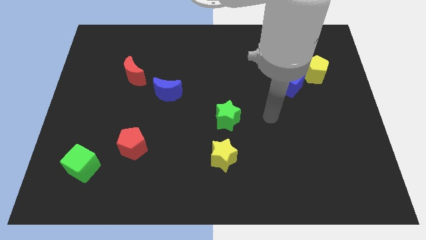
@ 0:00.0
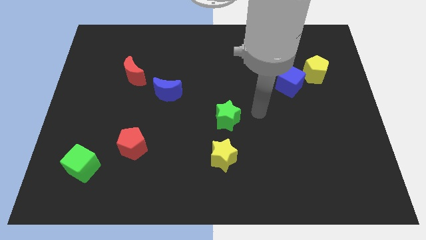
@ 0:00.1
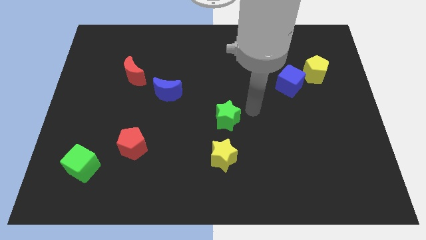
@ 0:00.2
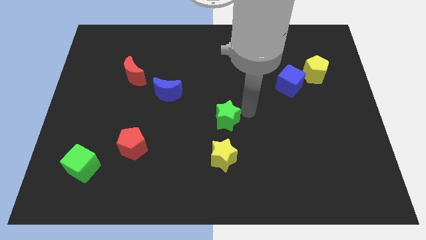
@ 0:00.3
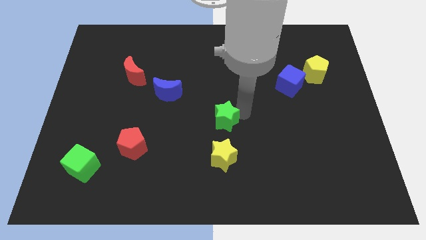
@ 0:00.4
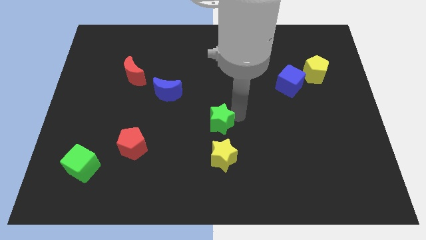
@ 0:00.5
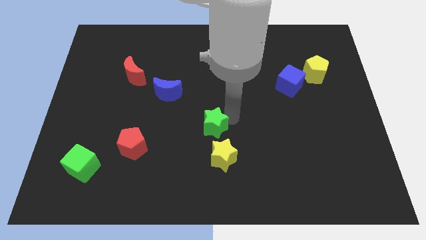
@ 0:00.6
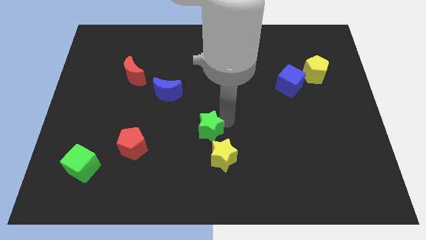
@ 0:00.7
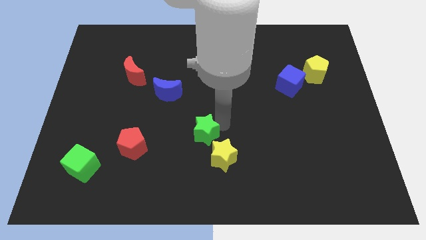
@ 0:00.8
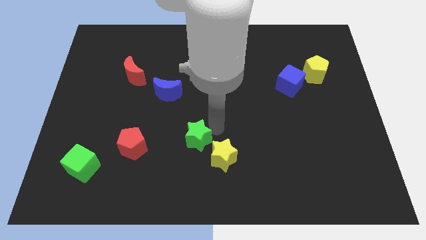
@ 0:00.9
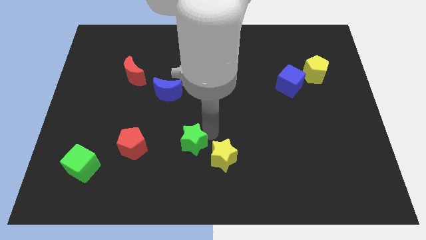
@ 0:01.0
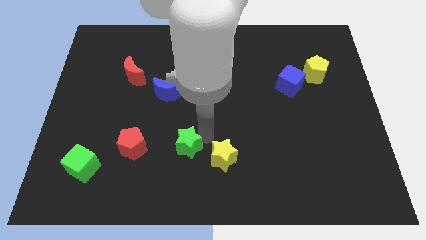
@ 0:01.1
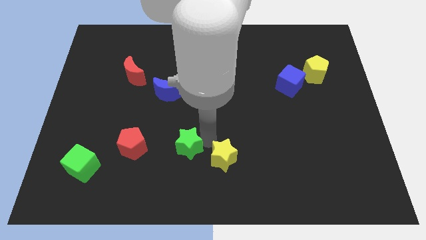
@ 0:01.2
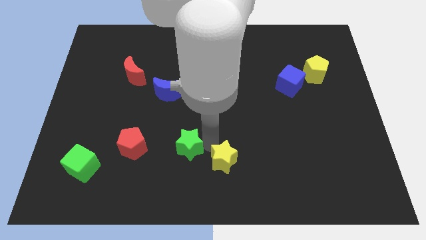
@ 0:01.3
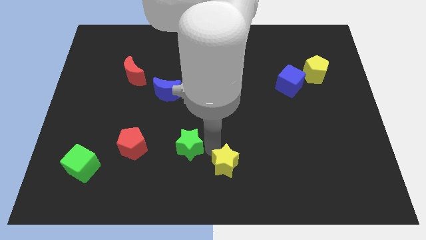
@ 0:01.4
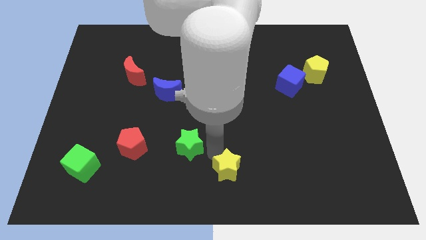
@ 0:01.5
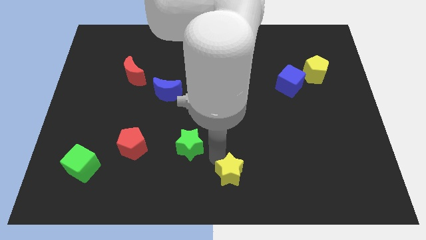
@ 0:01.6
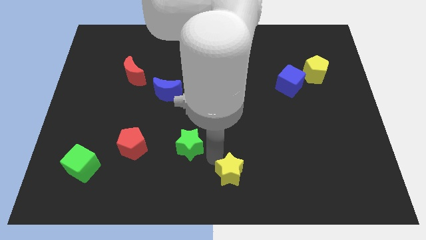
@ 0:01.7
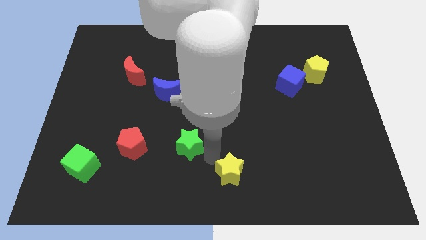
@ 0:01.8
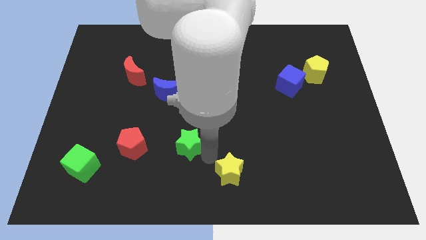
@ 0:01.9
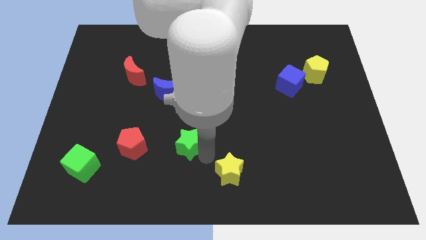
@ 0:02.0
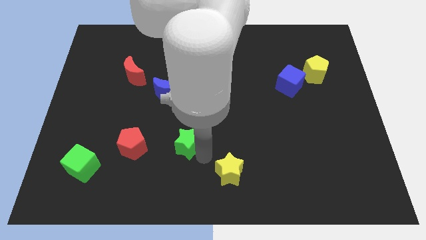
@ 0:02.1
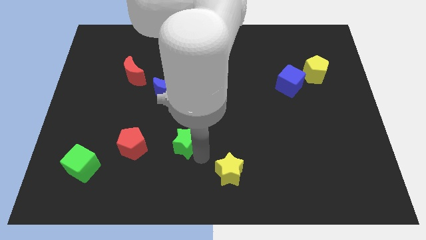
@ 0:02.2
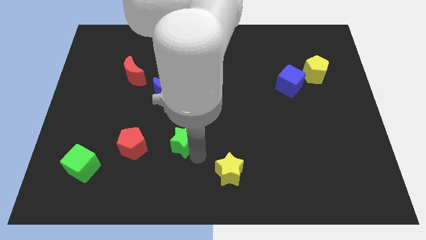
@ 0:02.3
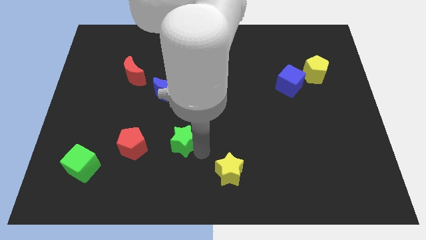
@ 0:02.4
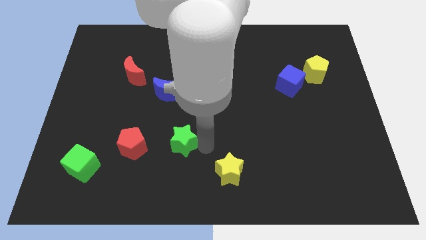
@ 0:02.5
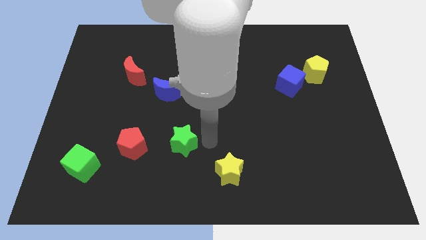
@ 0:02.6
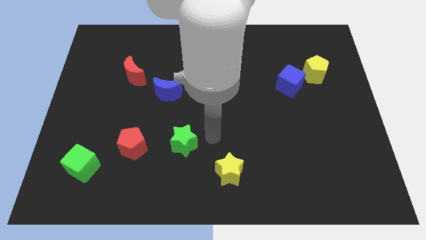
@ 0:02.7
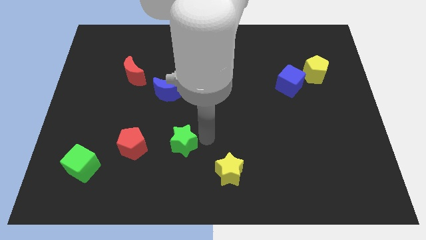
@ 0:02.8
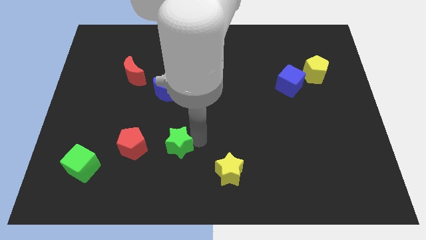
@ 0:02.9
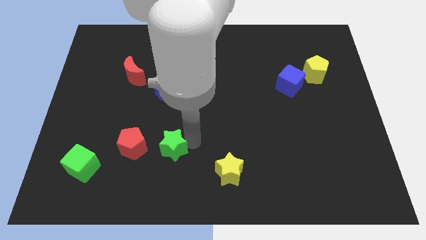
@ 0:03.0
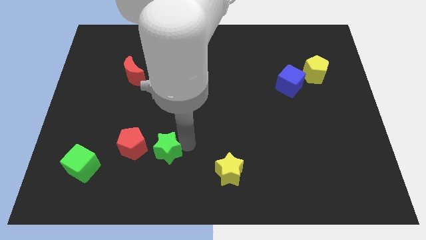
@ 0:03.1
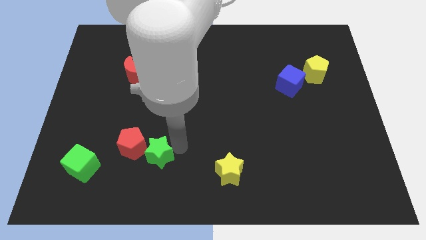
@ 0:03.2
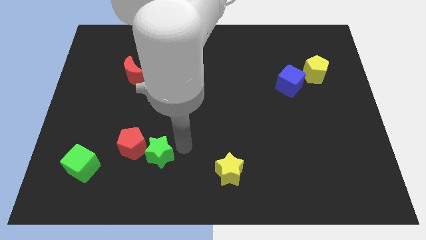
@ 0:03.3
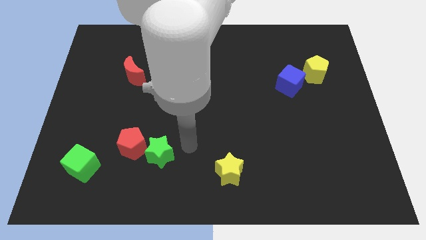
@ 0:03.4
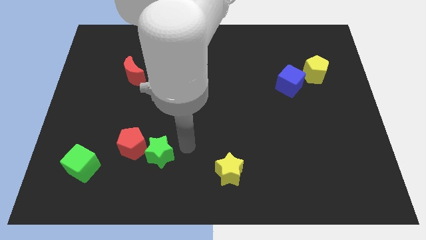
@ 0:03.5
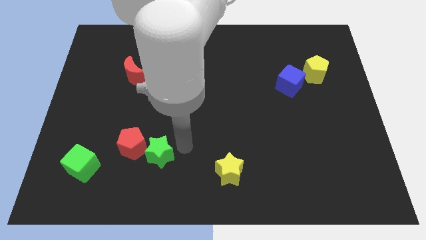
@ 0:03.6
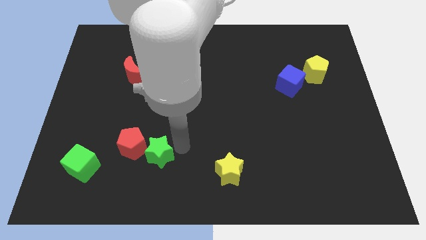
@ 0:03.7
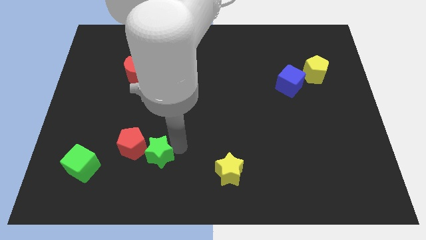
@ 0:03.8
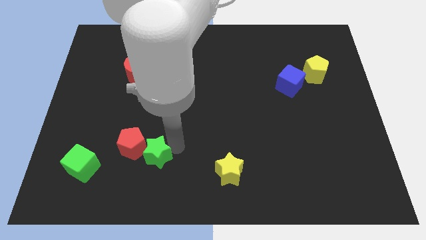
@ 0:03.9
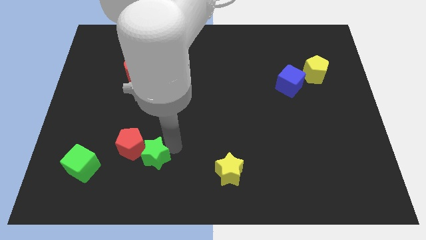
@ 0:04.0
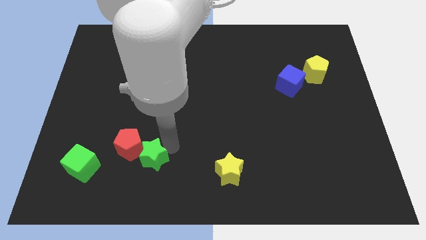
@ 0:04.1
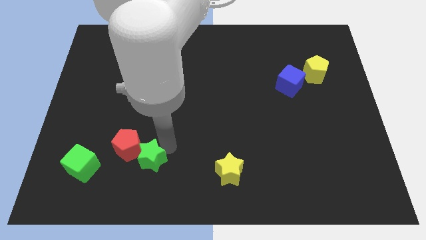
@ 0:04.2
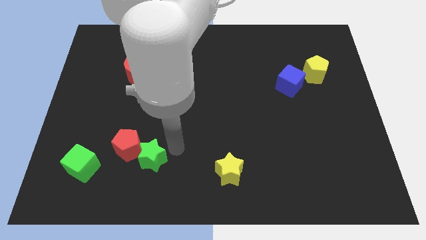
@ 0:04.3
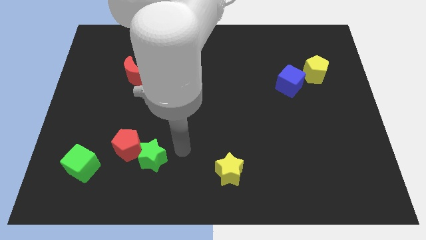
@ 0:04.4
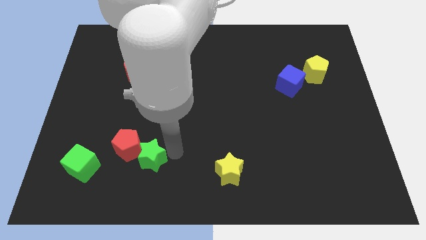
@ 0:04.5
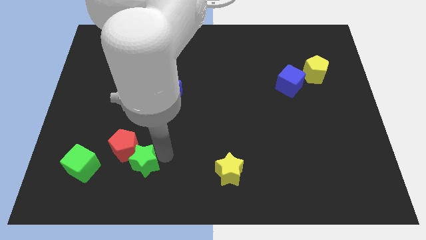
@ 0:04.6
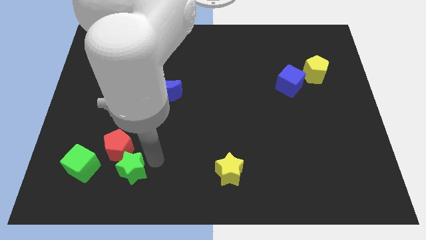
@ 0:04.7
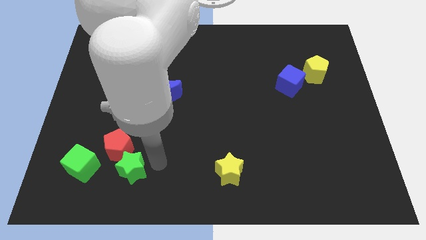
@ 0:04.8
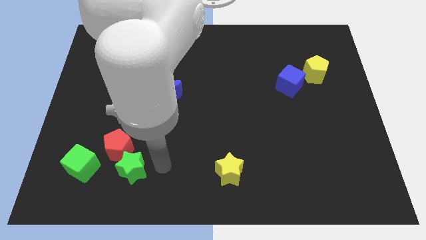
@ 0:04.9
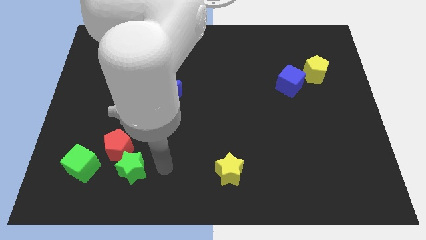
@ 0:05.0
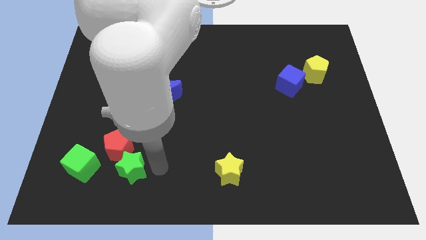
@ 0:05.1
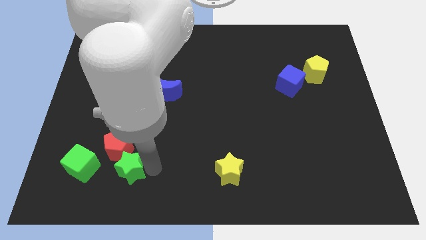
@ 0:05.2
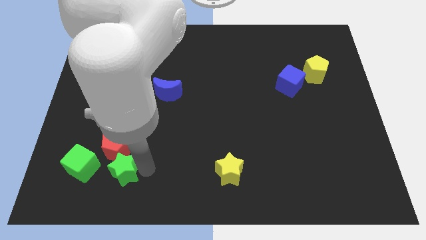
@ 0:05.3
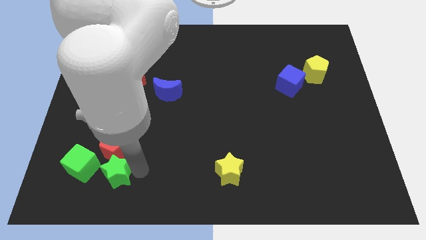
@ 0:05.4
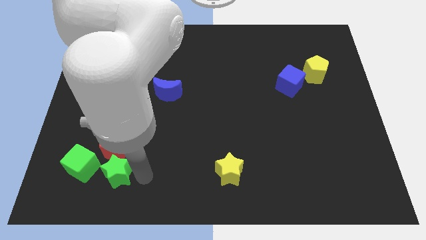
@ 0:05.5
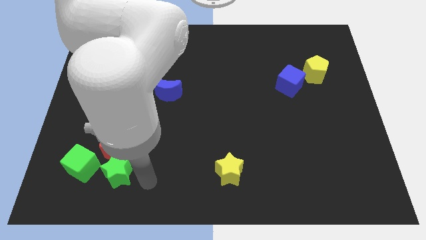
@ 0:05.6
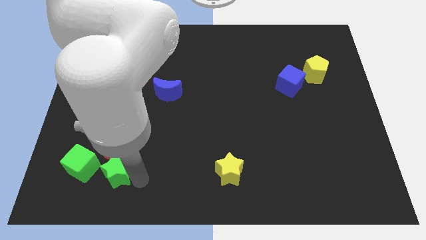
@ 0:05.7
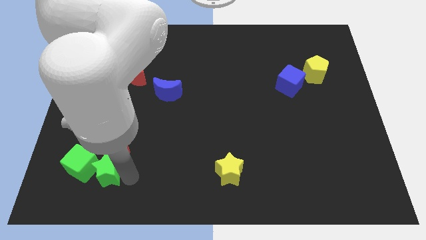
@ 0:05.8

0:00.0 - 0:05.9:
put the green star towards the green cube

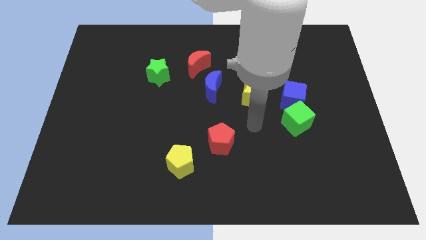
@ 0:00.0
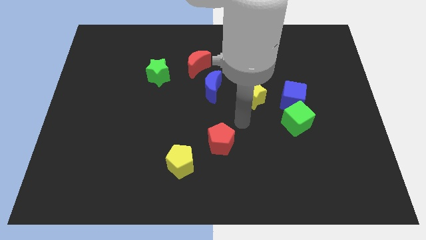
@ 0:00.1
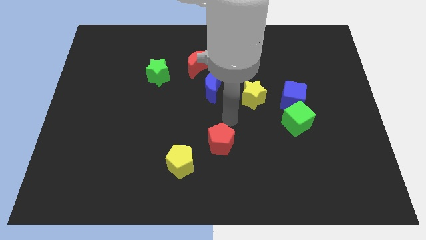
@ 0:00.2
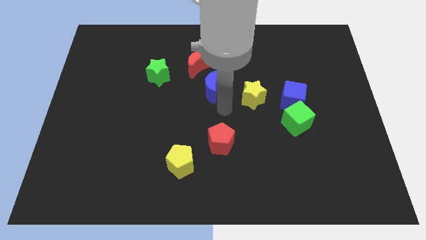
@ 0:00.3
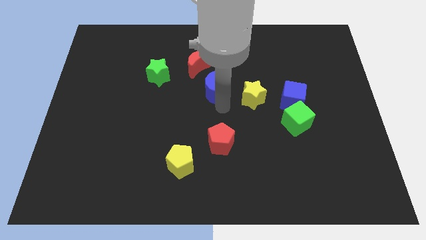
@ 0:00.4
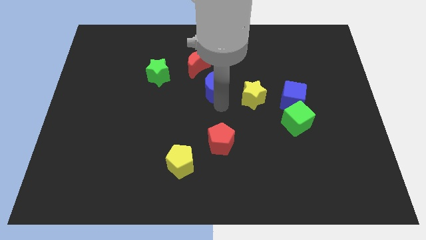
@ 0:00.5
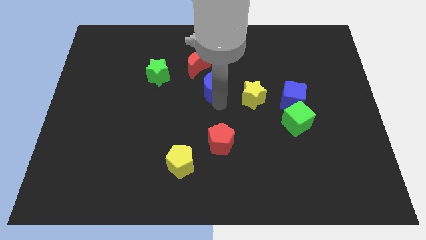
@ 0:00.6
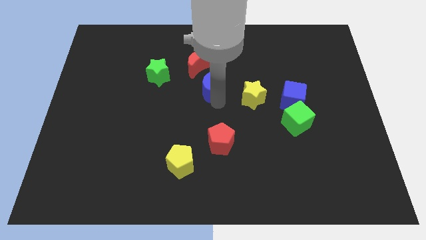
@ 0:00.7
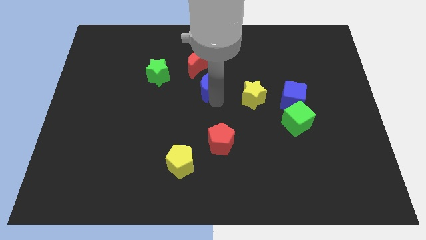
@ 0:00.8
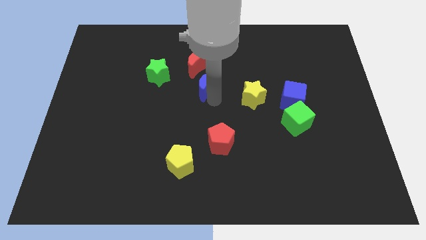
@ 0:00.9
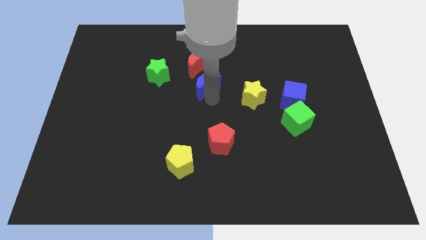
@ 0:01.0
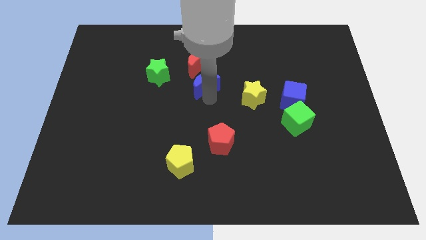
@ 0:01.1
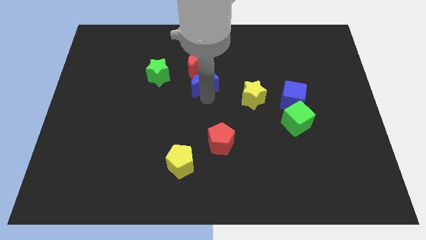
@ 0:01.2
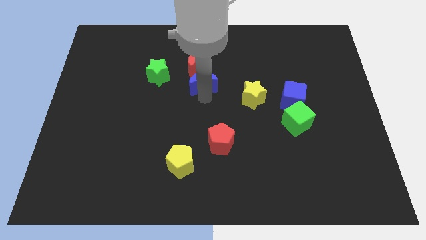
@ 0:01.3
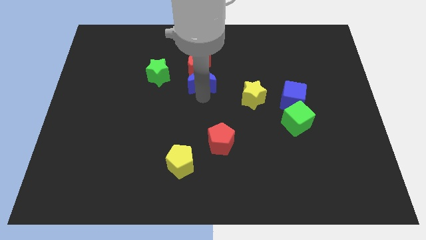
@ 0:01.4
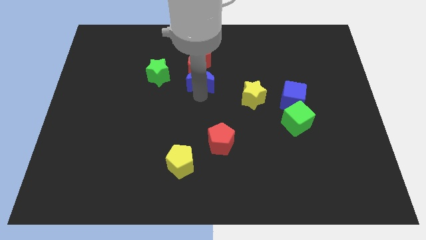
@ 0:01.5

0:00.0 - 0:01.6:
push the blue moon towards the red moon
